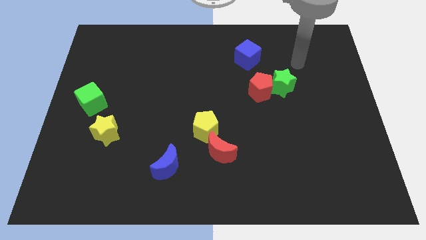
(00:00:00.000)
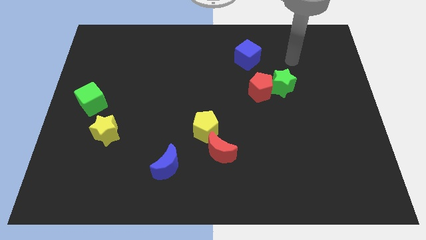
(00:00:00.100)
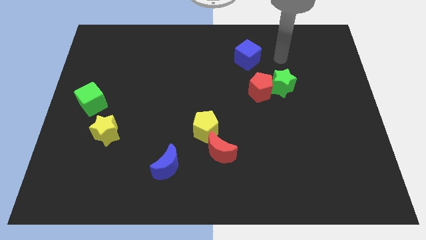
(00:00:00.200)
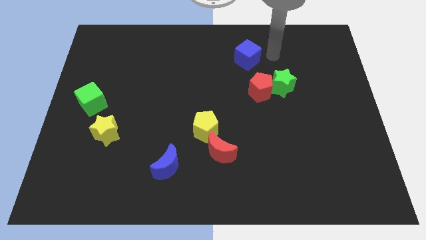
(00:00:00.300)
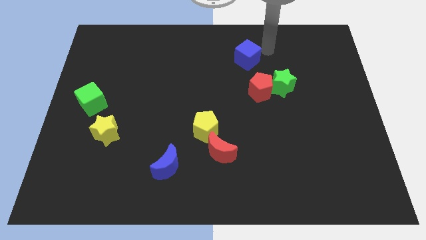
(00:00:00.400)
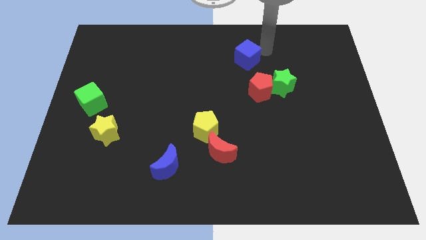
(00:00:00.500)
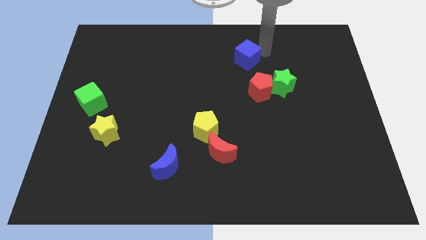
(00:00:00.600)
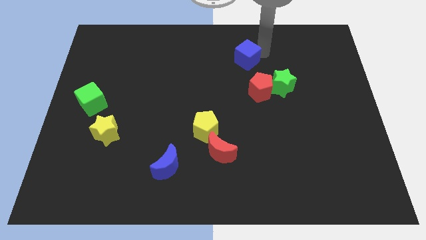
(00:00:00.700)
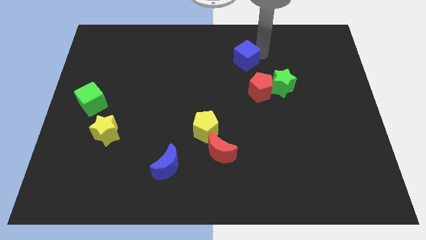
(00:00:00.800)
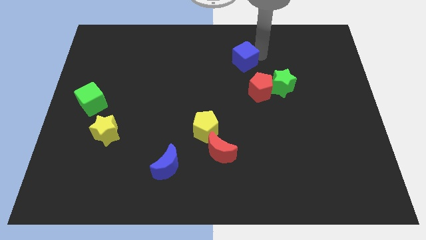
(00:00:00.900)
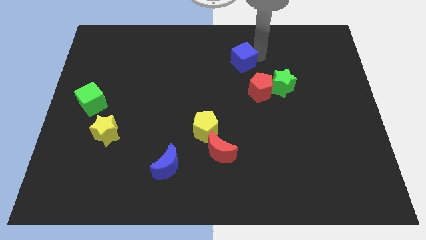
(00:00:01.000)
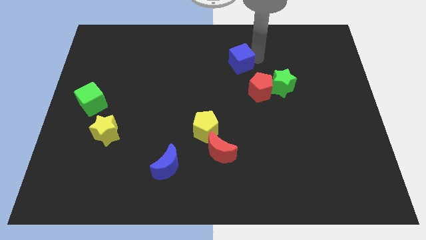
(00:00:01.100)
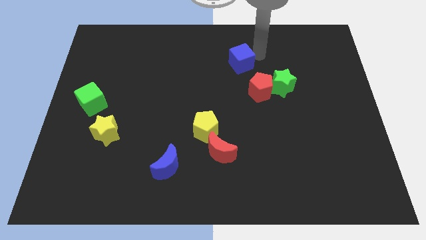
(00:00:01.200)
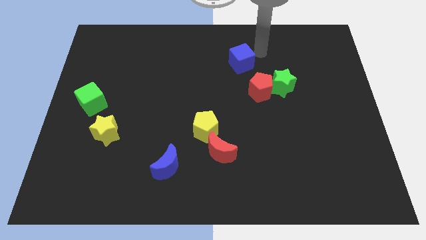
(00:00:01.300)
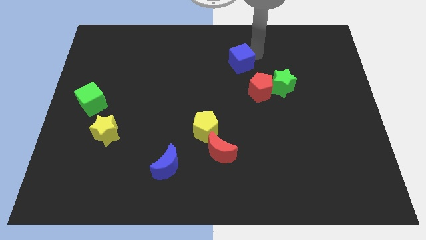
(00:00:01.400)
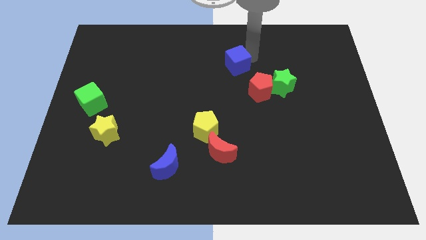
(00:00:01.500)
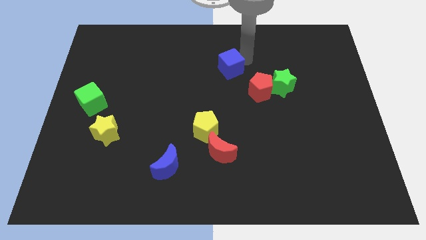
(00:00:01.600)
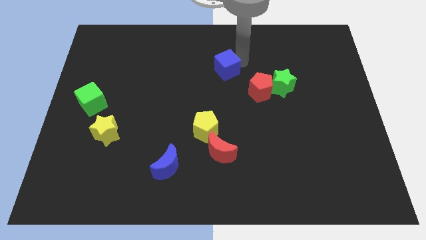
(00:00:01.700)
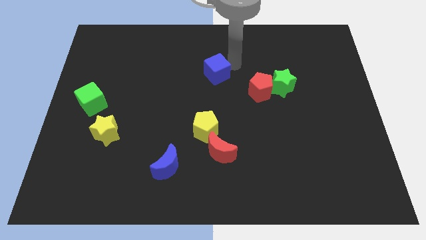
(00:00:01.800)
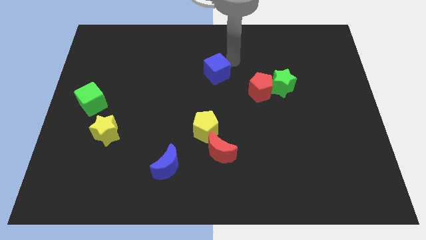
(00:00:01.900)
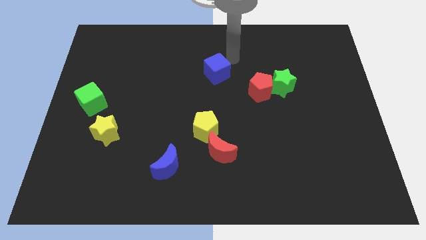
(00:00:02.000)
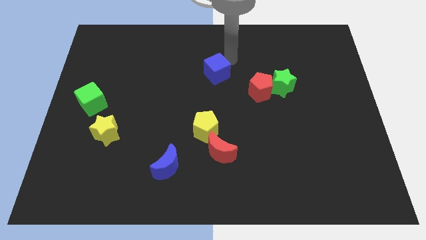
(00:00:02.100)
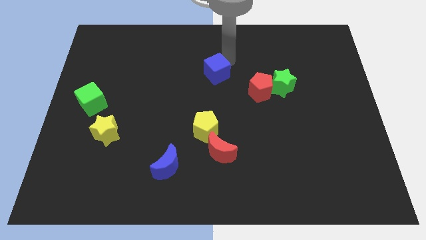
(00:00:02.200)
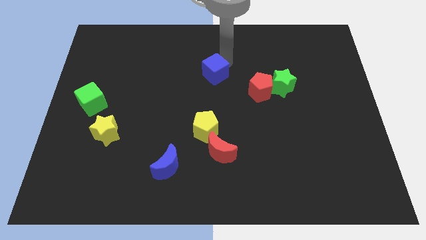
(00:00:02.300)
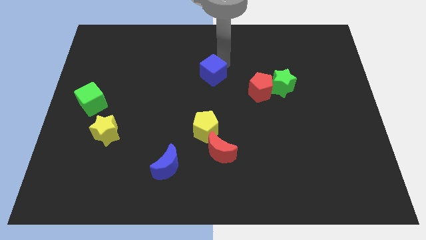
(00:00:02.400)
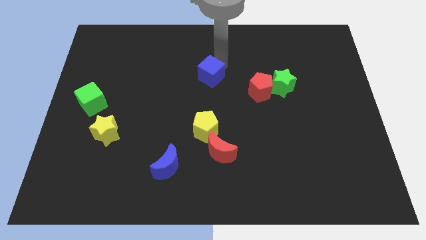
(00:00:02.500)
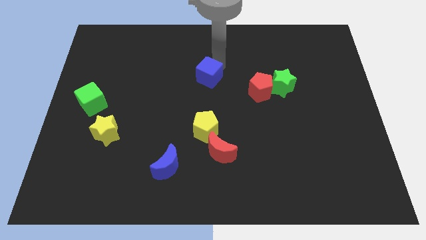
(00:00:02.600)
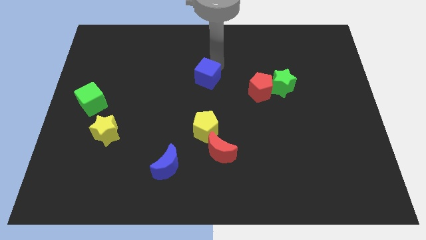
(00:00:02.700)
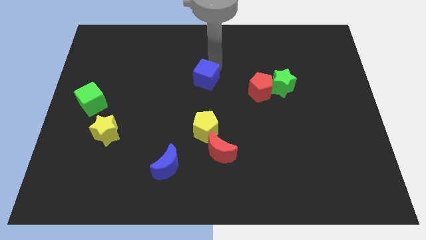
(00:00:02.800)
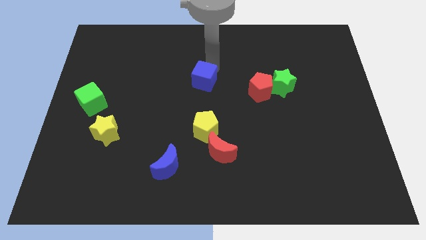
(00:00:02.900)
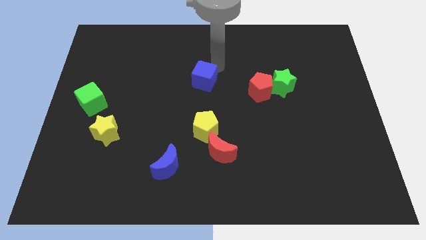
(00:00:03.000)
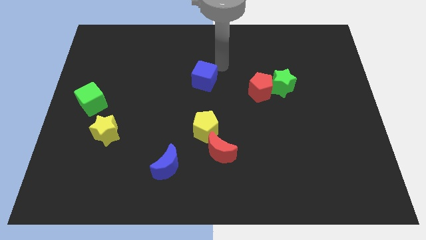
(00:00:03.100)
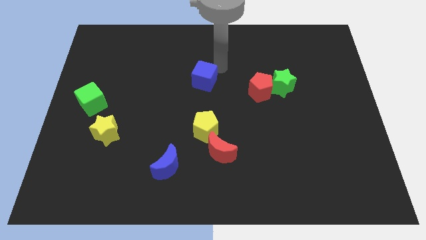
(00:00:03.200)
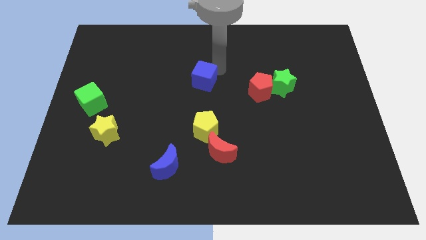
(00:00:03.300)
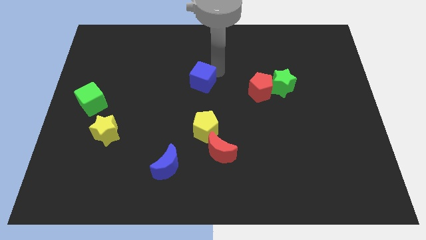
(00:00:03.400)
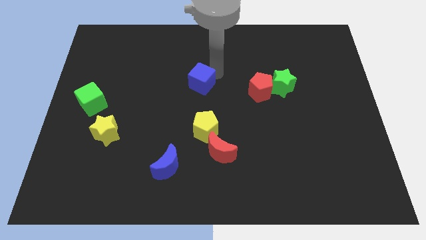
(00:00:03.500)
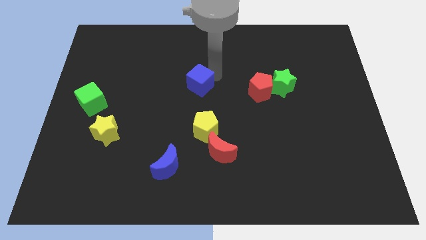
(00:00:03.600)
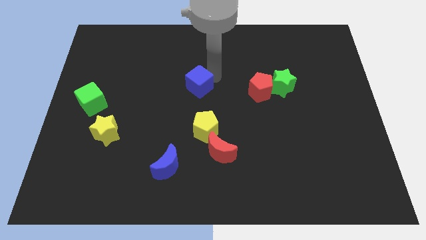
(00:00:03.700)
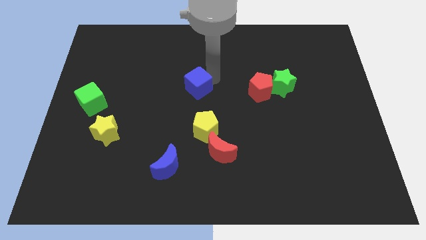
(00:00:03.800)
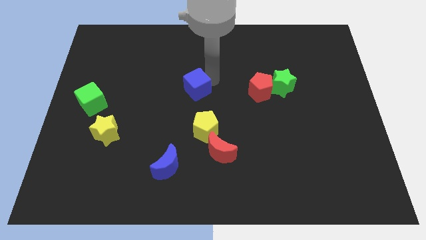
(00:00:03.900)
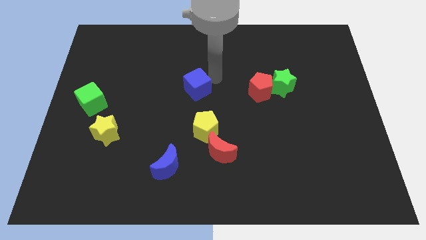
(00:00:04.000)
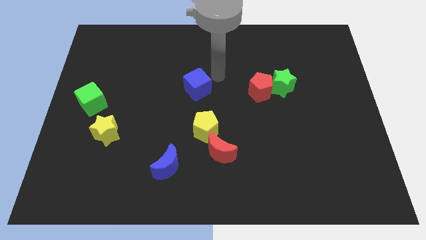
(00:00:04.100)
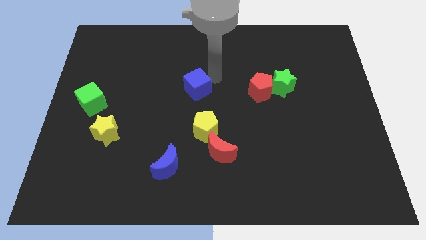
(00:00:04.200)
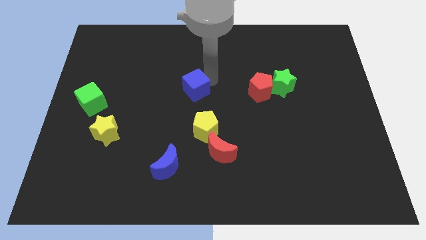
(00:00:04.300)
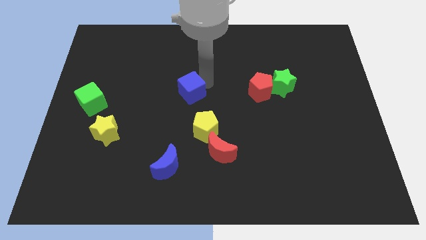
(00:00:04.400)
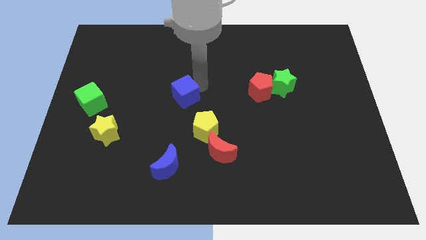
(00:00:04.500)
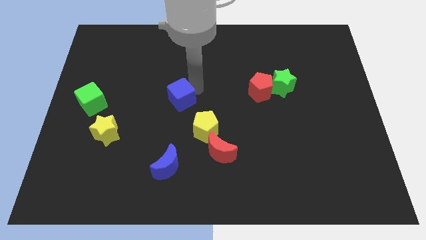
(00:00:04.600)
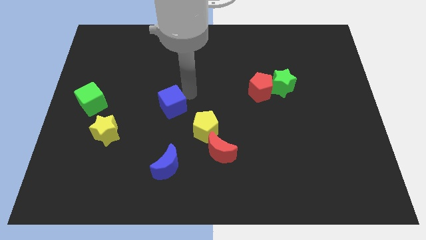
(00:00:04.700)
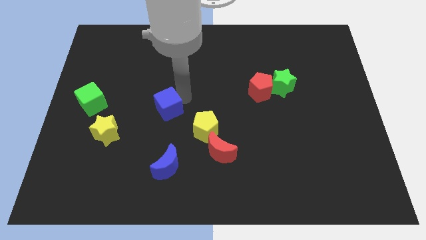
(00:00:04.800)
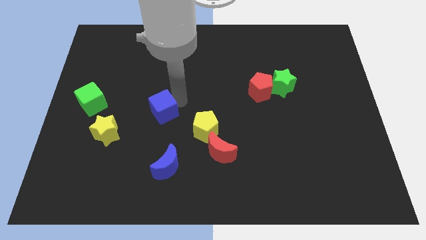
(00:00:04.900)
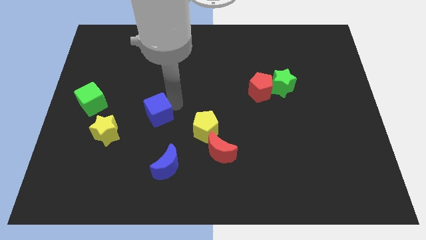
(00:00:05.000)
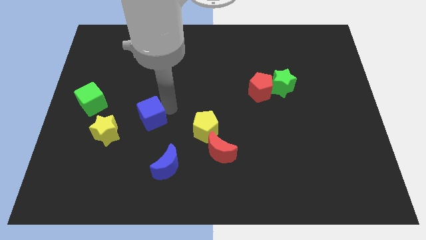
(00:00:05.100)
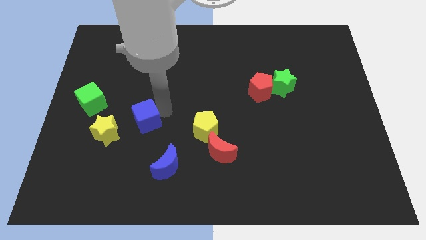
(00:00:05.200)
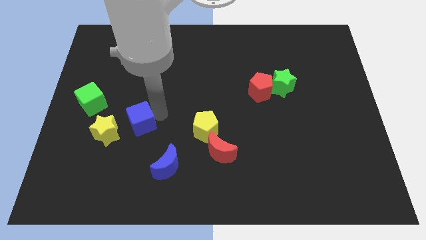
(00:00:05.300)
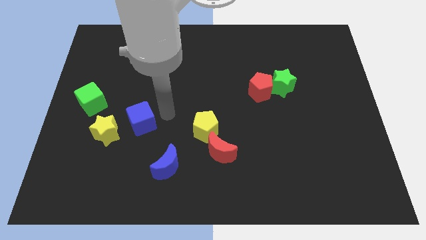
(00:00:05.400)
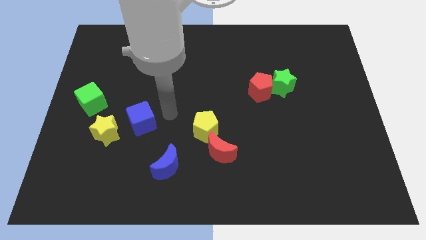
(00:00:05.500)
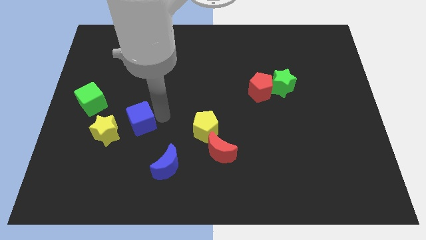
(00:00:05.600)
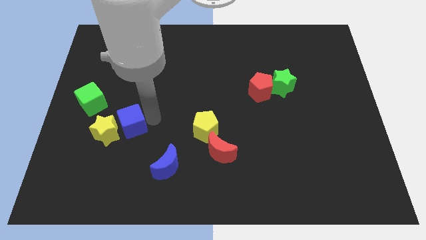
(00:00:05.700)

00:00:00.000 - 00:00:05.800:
slide the blue cube next to the yellow star

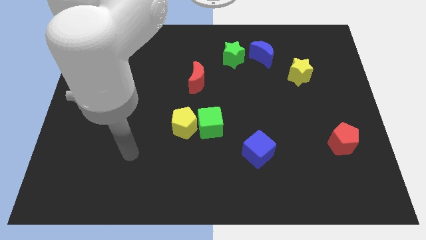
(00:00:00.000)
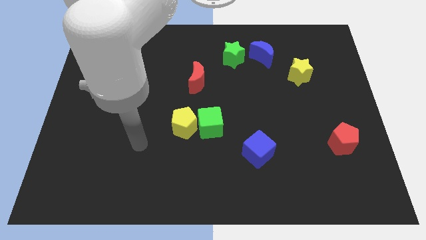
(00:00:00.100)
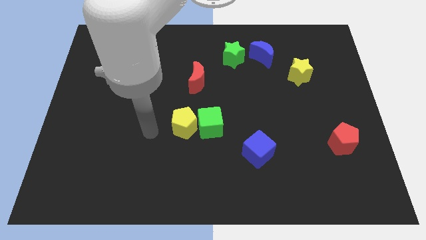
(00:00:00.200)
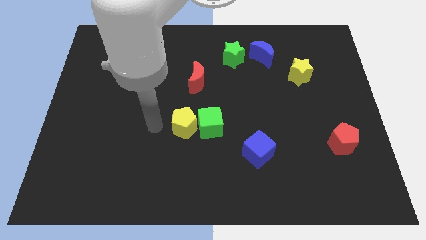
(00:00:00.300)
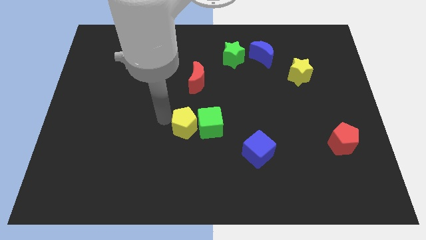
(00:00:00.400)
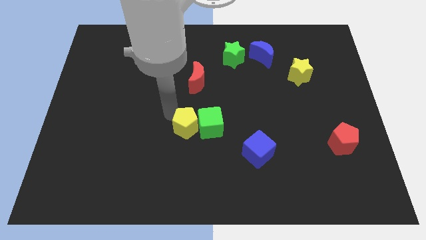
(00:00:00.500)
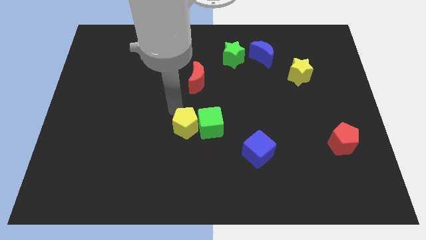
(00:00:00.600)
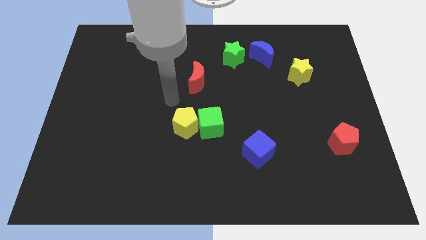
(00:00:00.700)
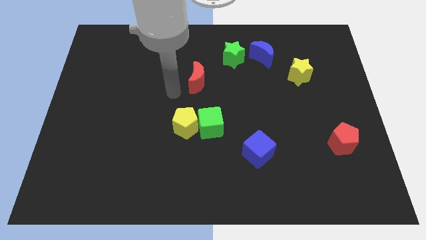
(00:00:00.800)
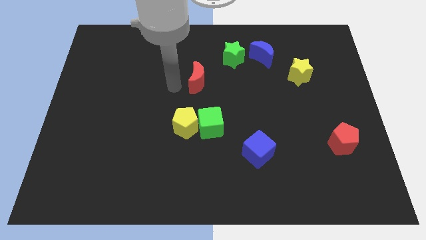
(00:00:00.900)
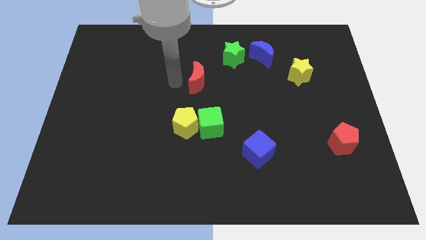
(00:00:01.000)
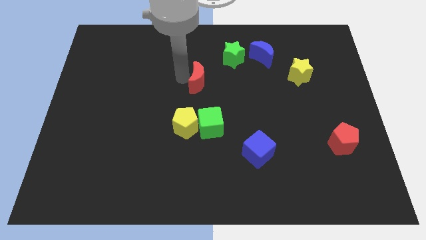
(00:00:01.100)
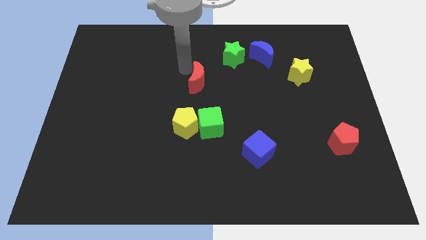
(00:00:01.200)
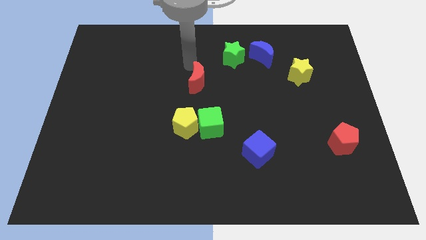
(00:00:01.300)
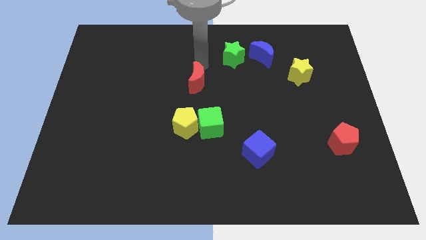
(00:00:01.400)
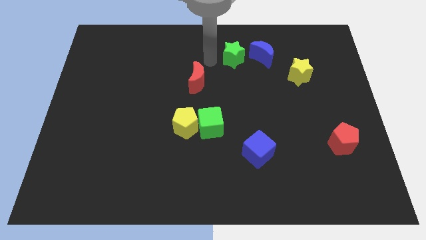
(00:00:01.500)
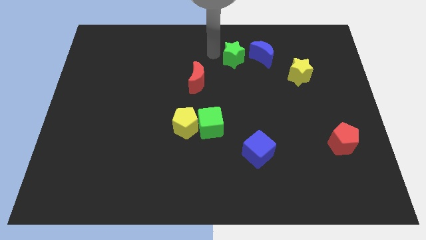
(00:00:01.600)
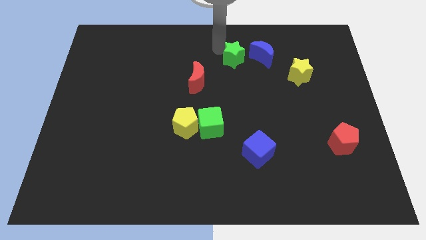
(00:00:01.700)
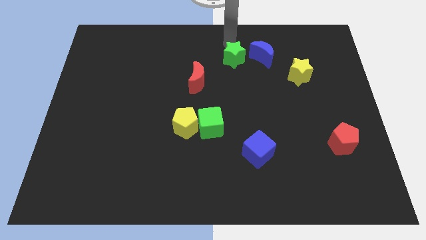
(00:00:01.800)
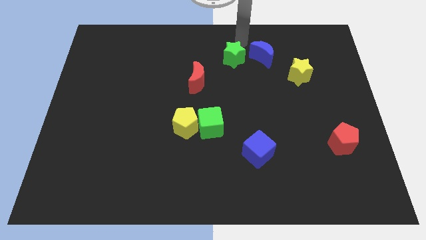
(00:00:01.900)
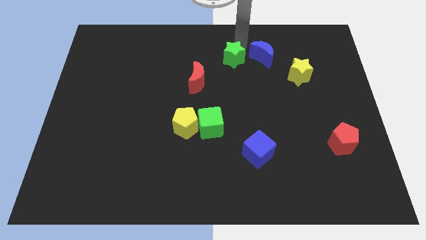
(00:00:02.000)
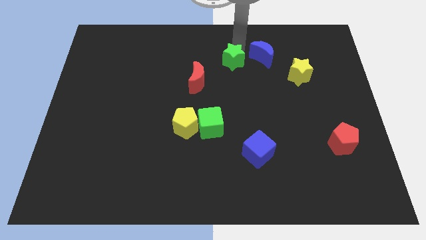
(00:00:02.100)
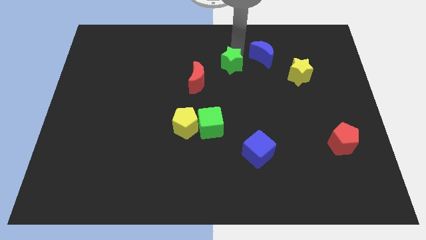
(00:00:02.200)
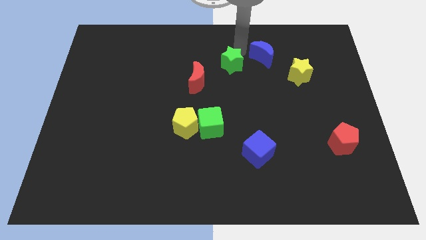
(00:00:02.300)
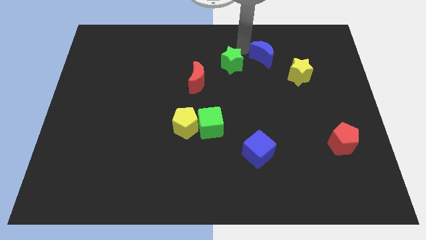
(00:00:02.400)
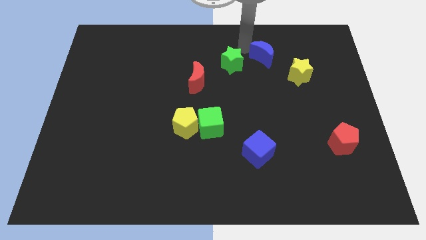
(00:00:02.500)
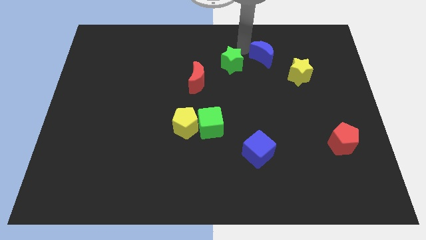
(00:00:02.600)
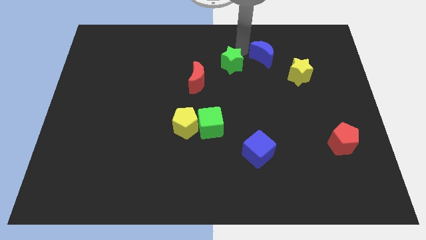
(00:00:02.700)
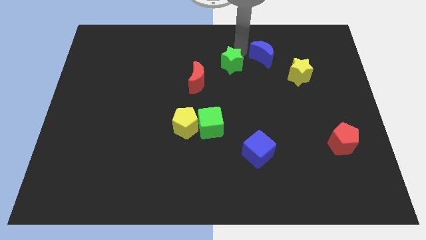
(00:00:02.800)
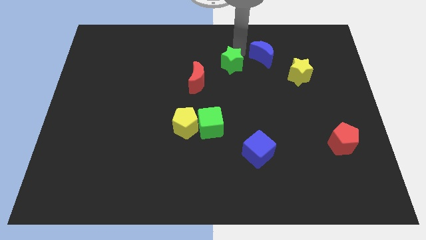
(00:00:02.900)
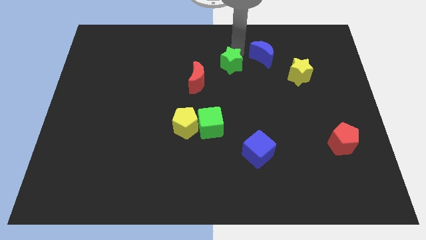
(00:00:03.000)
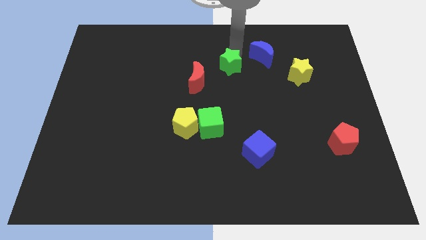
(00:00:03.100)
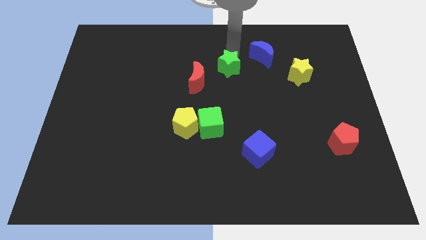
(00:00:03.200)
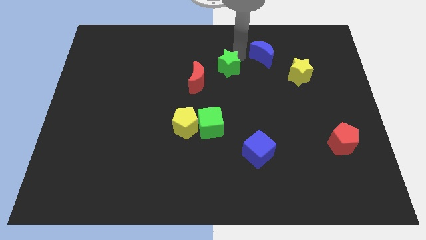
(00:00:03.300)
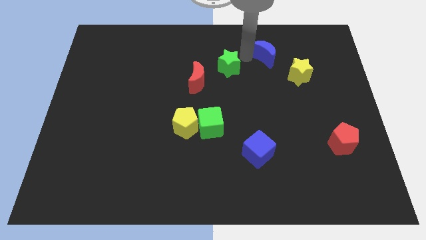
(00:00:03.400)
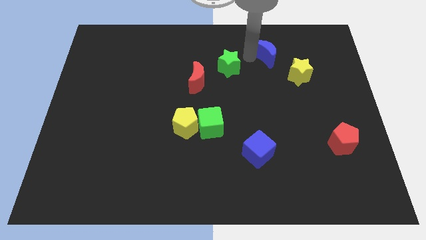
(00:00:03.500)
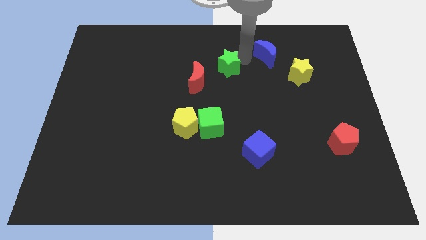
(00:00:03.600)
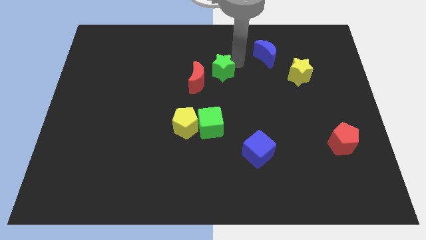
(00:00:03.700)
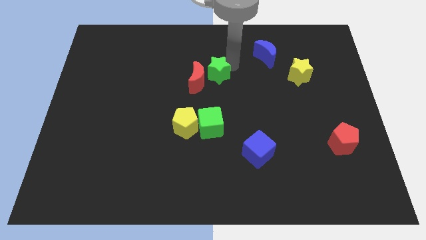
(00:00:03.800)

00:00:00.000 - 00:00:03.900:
slide the green star to the red moon
